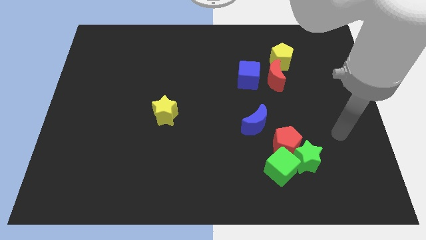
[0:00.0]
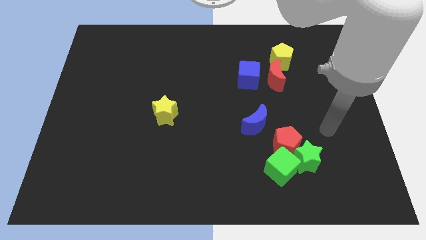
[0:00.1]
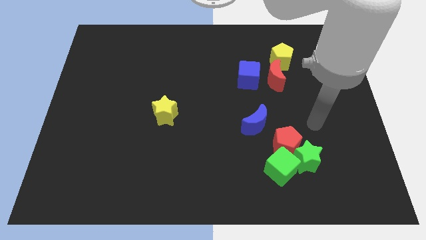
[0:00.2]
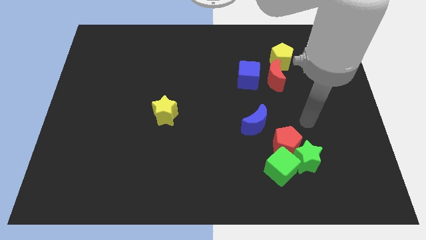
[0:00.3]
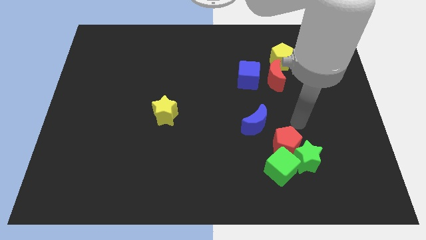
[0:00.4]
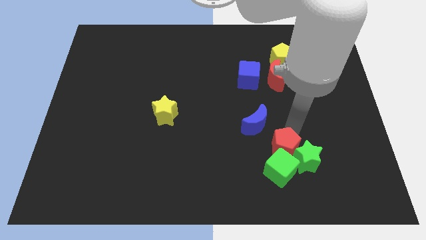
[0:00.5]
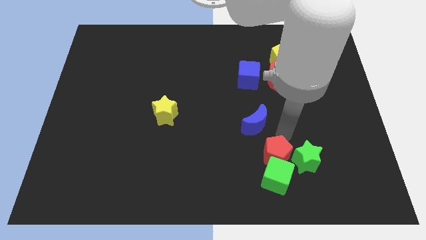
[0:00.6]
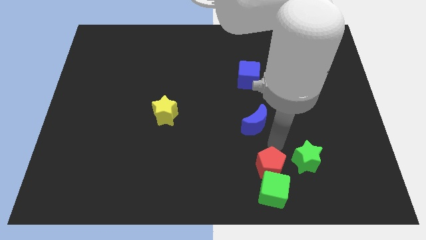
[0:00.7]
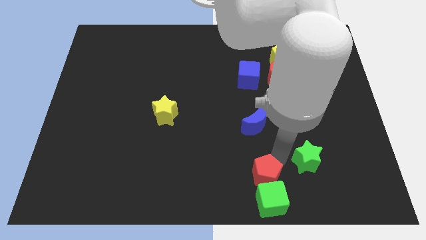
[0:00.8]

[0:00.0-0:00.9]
pull the green star apart from the red pentagon and green cube

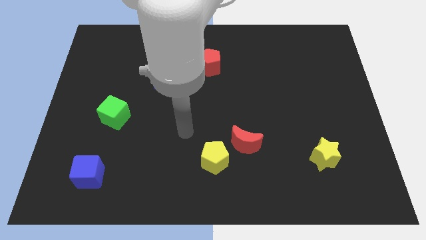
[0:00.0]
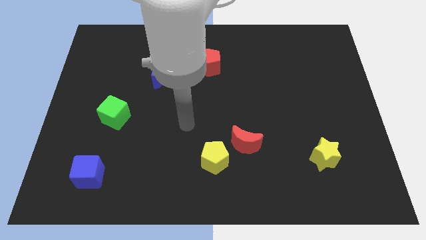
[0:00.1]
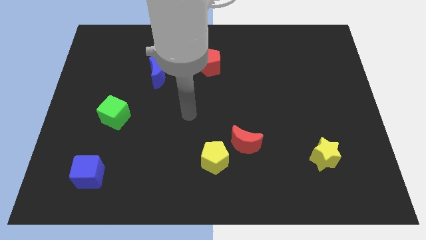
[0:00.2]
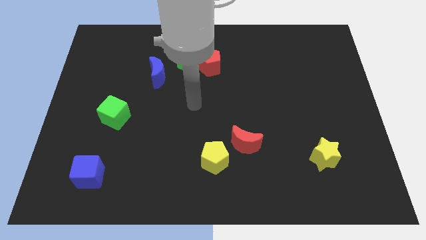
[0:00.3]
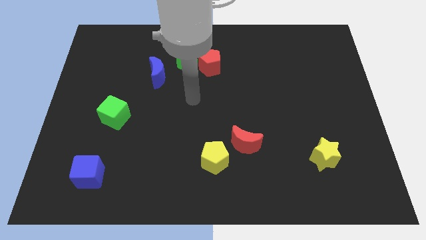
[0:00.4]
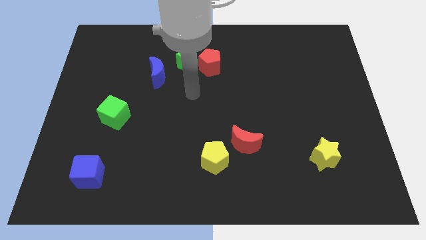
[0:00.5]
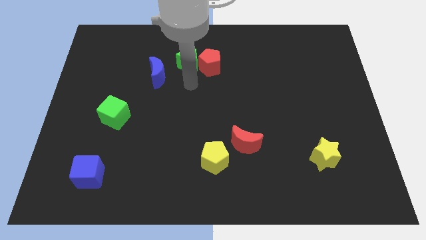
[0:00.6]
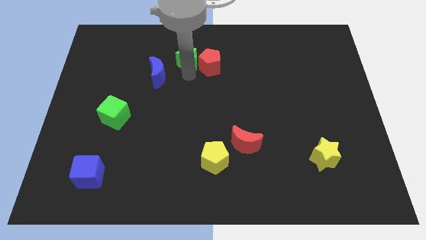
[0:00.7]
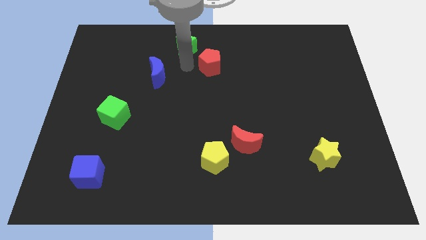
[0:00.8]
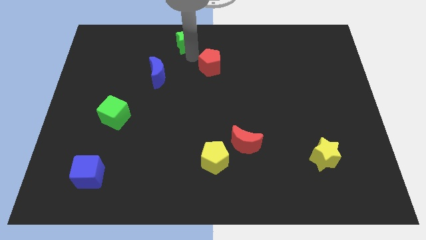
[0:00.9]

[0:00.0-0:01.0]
pull the red pentagon apart from the green star

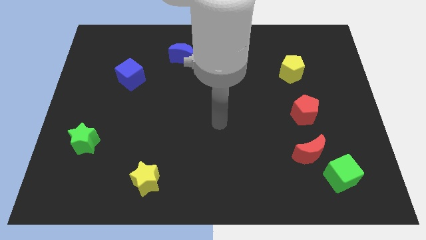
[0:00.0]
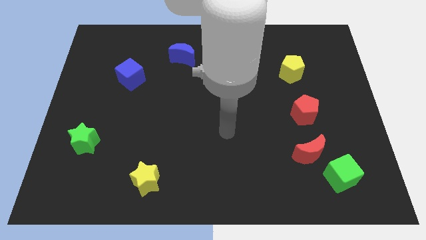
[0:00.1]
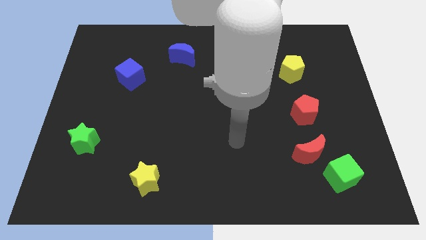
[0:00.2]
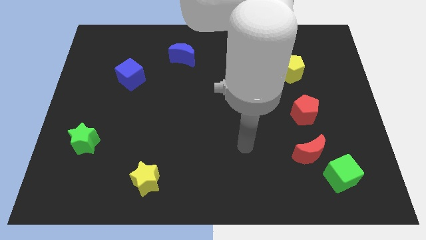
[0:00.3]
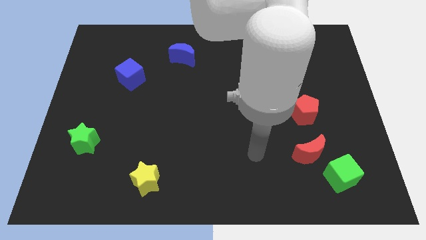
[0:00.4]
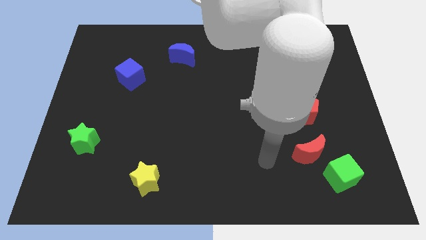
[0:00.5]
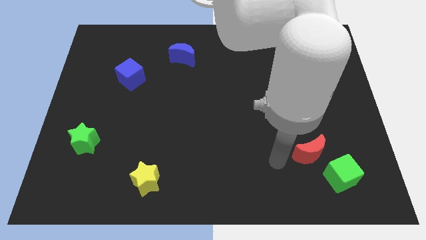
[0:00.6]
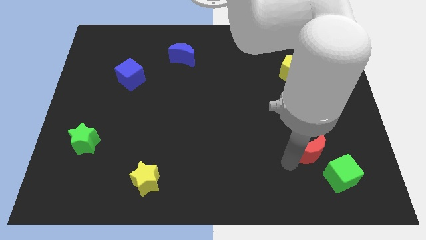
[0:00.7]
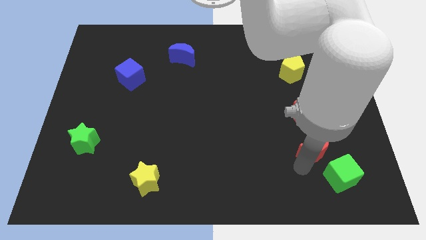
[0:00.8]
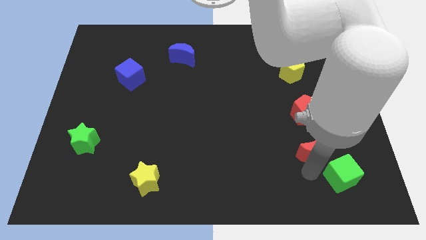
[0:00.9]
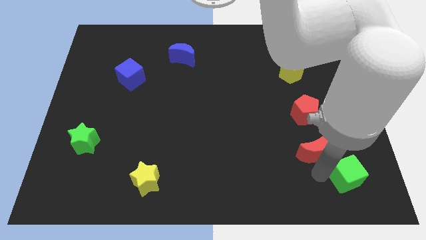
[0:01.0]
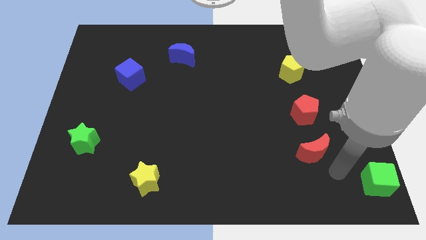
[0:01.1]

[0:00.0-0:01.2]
move the red moon away from the green cube

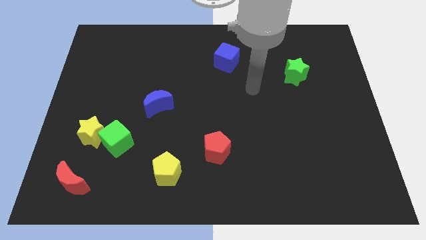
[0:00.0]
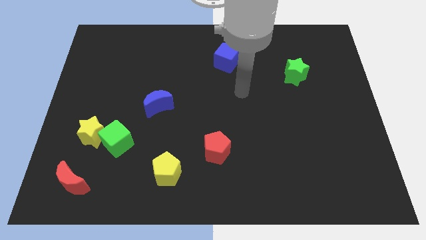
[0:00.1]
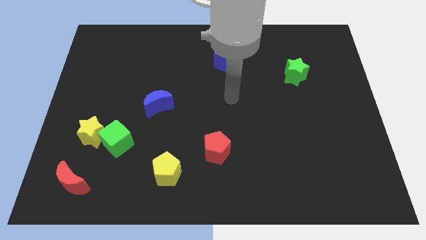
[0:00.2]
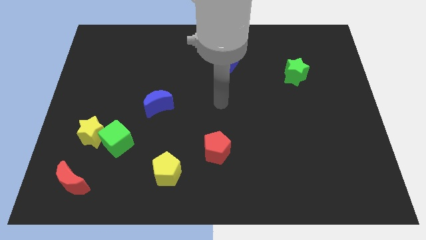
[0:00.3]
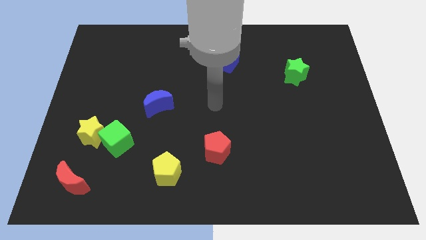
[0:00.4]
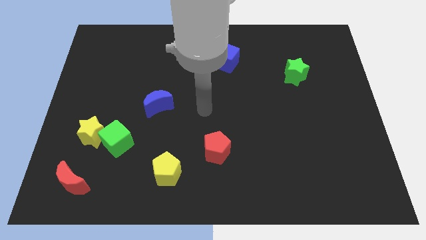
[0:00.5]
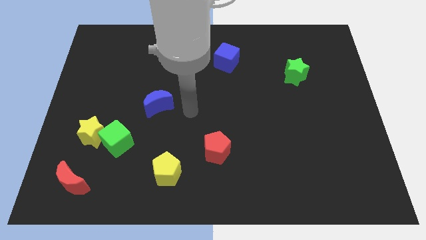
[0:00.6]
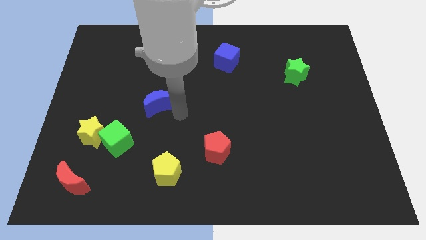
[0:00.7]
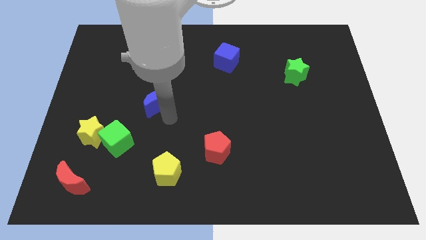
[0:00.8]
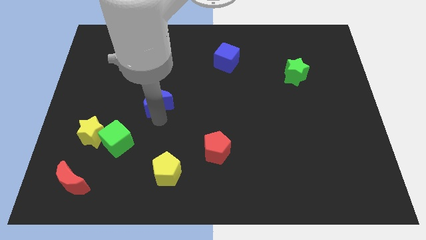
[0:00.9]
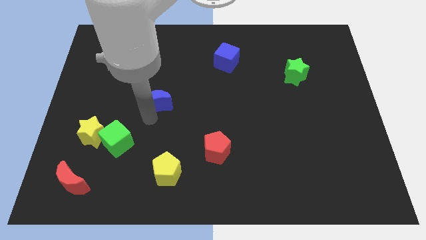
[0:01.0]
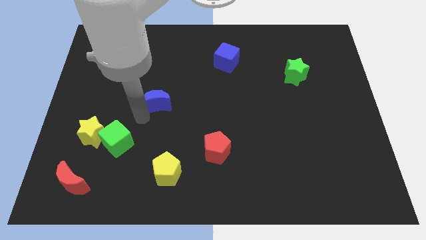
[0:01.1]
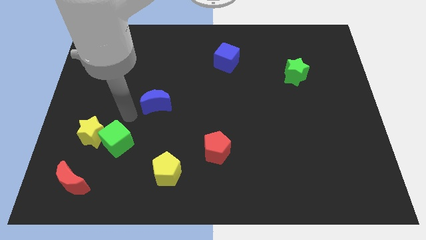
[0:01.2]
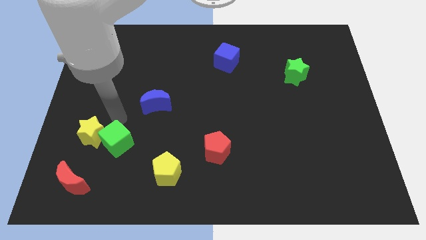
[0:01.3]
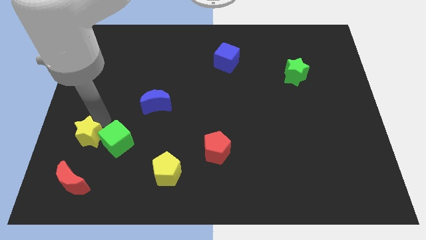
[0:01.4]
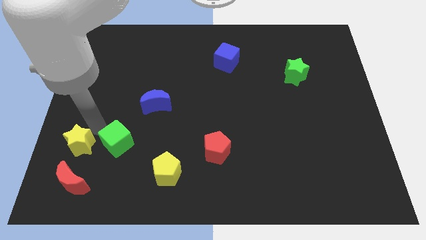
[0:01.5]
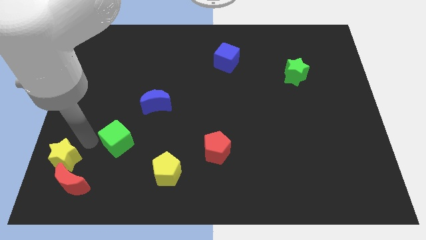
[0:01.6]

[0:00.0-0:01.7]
separate the green cube from the yellow star

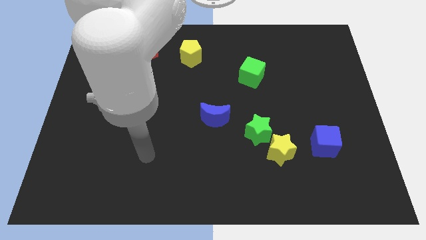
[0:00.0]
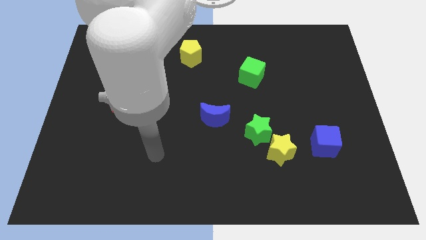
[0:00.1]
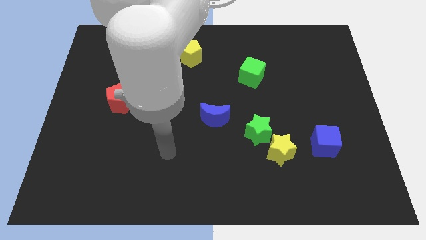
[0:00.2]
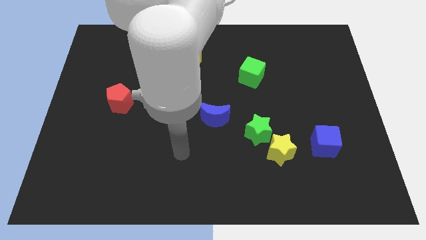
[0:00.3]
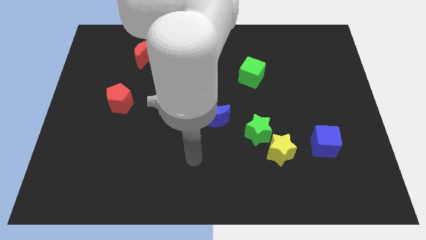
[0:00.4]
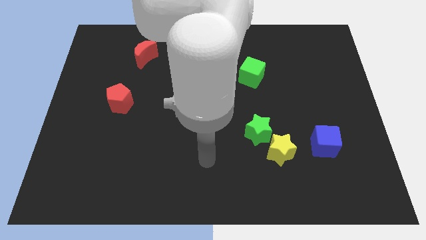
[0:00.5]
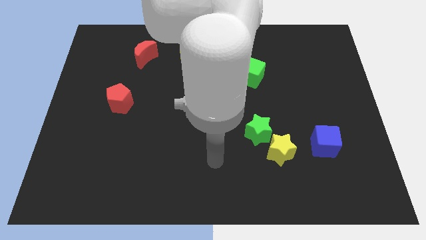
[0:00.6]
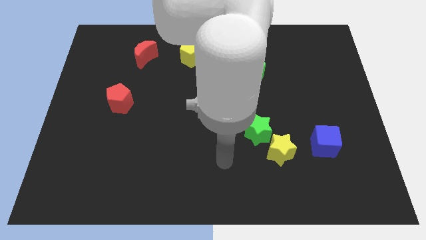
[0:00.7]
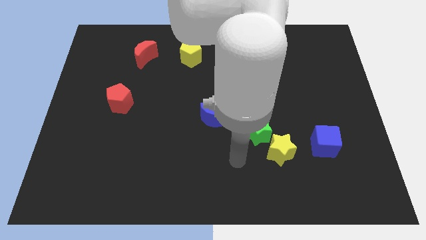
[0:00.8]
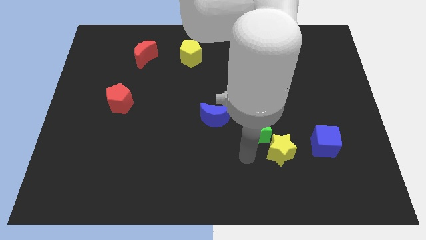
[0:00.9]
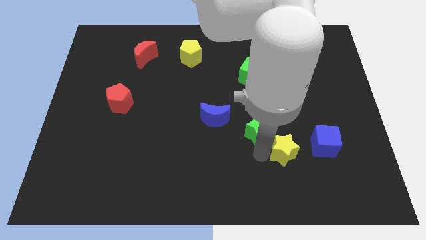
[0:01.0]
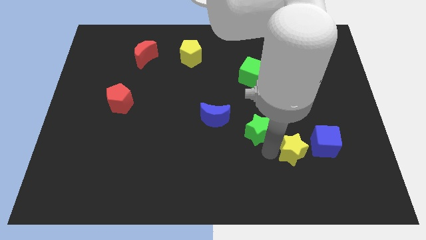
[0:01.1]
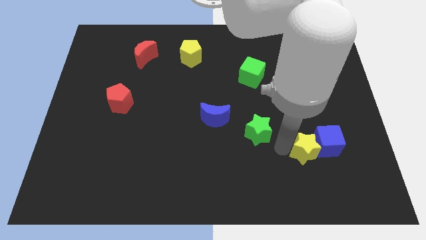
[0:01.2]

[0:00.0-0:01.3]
pull the green star apart from the yellow star

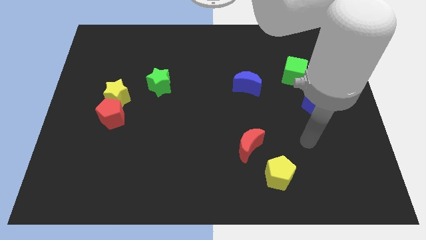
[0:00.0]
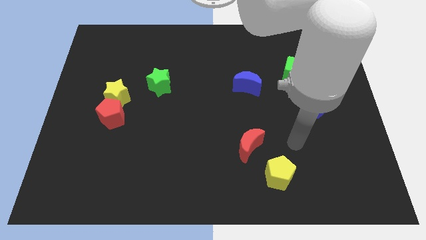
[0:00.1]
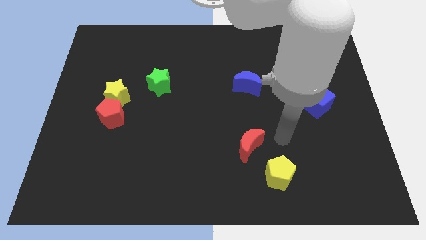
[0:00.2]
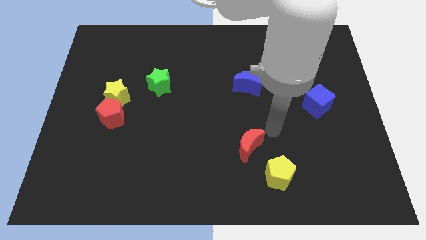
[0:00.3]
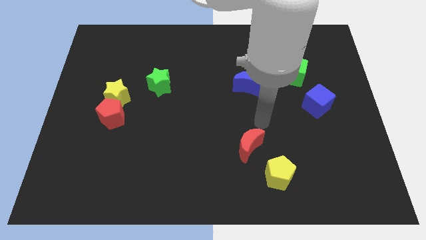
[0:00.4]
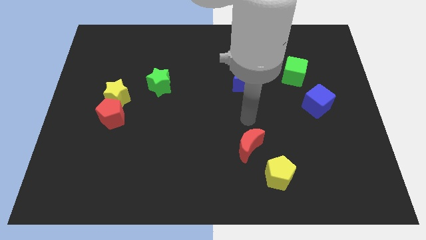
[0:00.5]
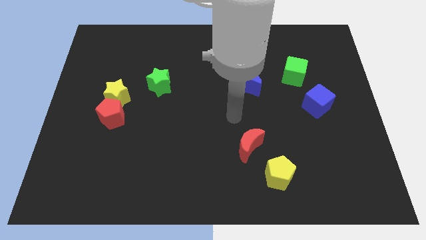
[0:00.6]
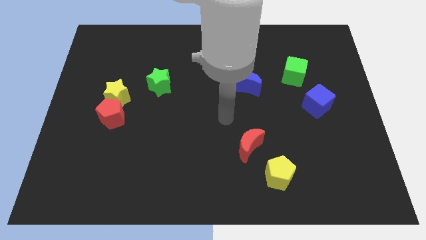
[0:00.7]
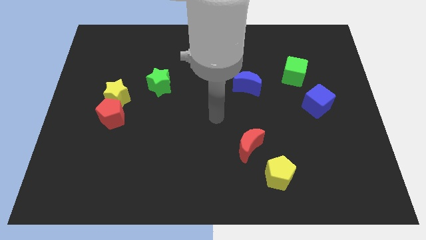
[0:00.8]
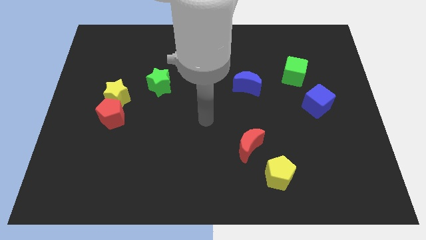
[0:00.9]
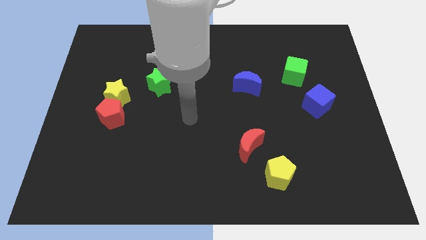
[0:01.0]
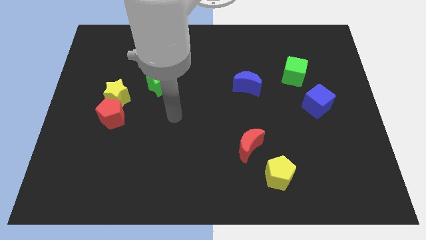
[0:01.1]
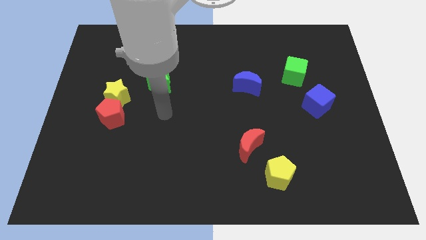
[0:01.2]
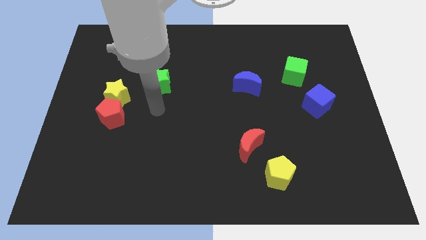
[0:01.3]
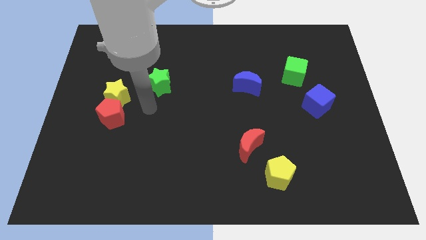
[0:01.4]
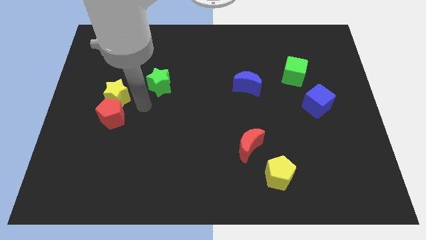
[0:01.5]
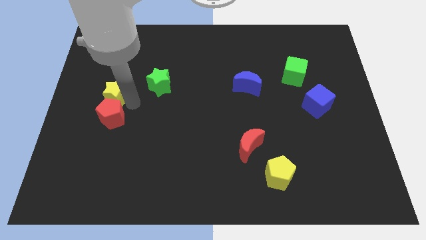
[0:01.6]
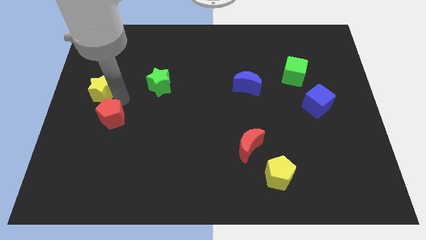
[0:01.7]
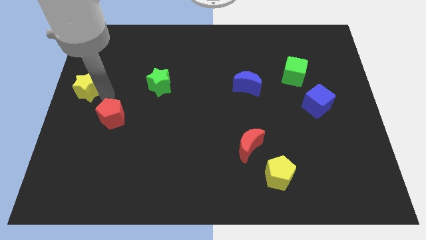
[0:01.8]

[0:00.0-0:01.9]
move the red pentagon away from the yellow star

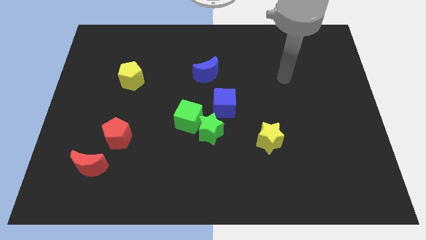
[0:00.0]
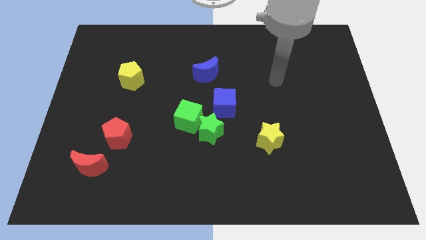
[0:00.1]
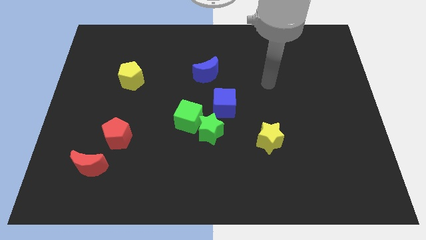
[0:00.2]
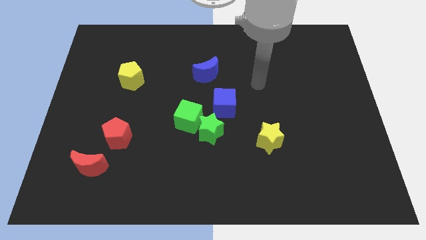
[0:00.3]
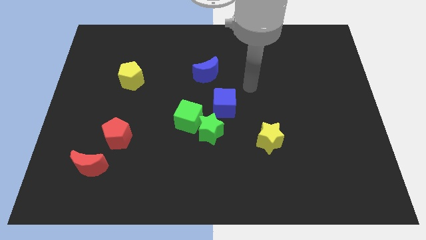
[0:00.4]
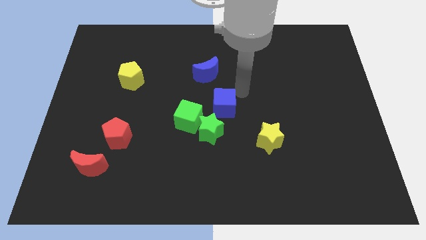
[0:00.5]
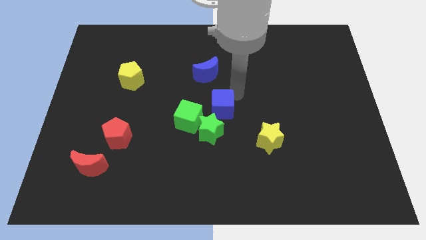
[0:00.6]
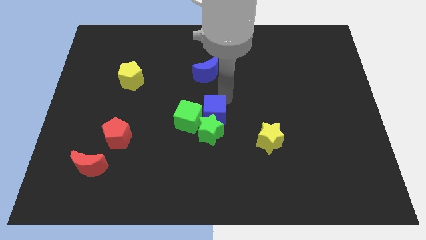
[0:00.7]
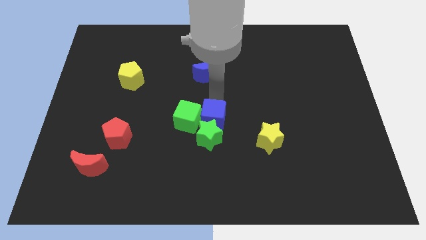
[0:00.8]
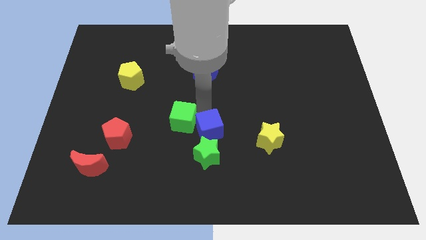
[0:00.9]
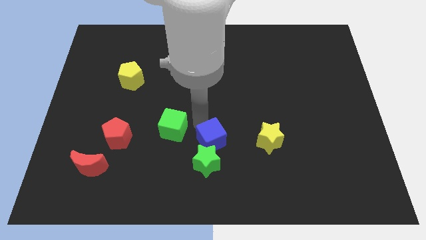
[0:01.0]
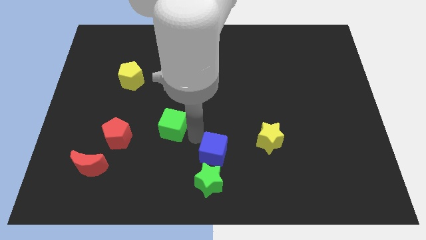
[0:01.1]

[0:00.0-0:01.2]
separate the green star from the green cube and blue cube

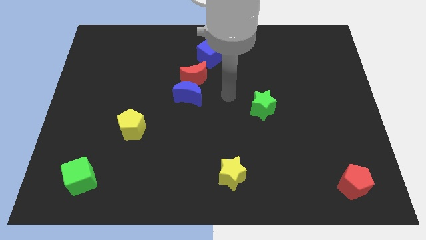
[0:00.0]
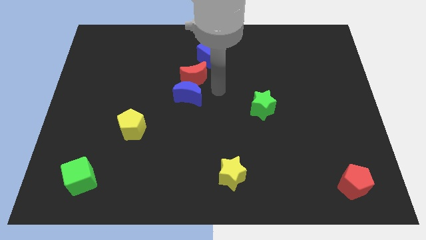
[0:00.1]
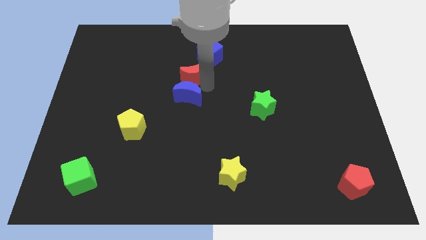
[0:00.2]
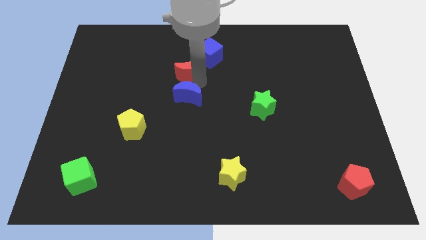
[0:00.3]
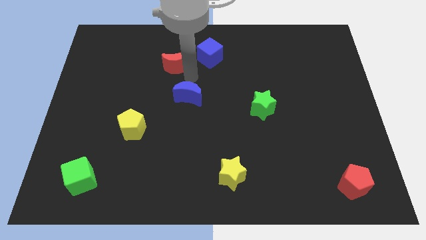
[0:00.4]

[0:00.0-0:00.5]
separate the blue moon from the red moon
